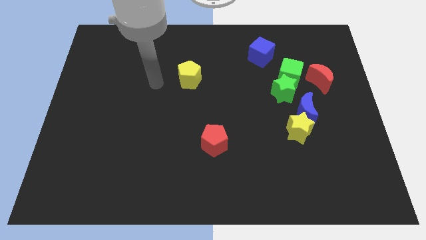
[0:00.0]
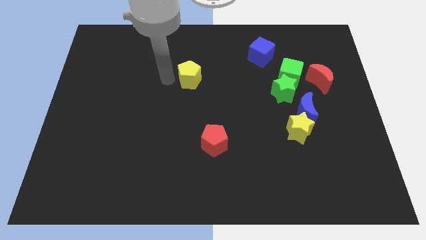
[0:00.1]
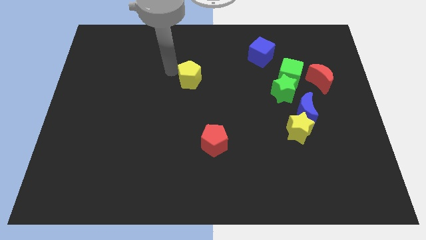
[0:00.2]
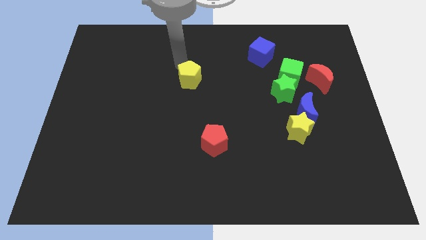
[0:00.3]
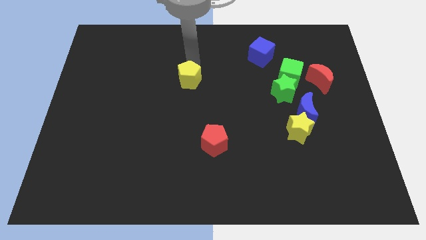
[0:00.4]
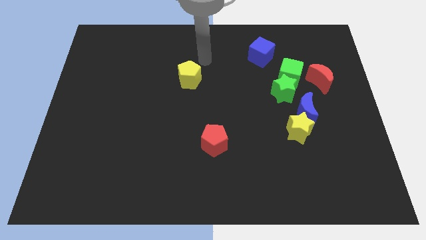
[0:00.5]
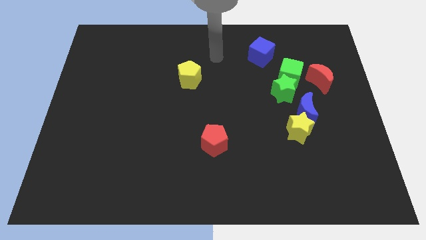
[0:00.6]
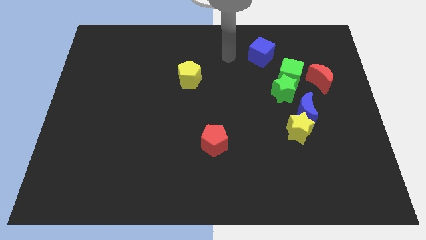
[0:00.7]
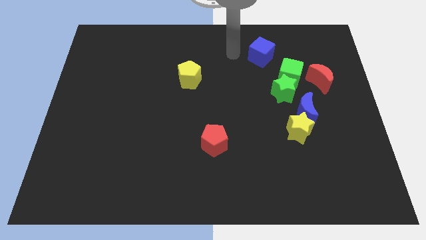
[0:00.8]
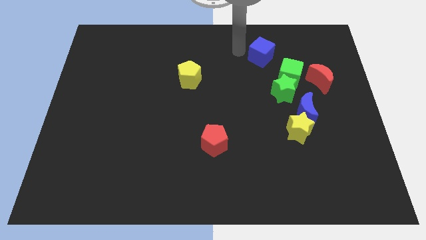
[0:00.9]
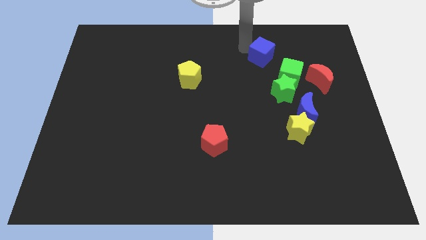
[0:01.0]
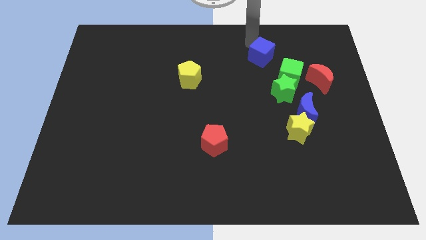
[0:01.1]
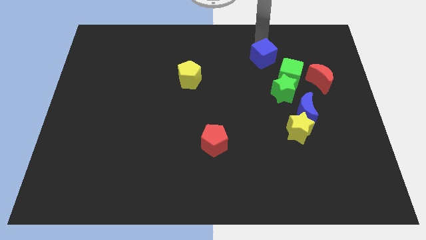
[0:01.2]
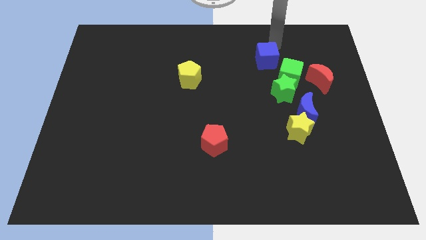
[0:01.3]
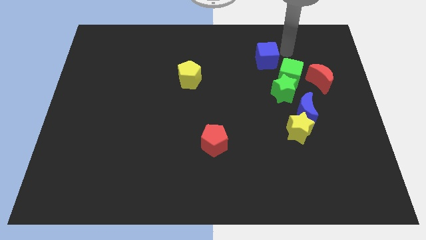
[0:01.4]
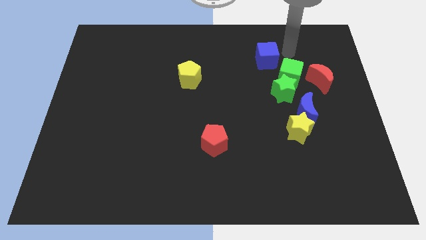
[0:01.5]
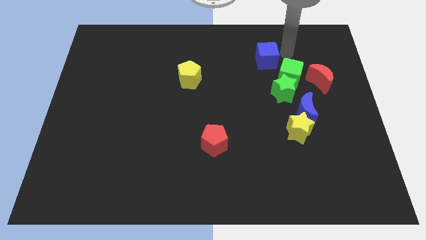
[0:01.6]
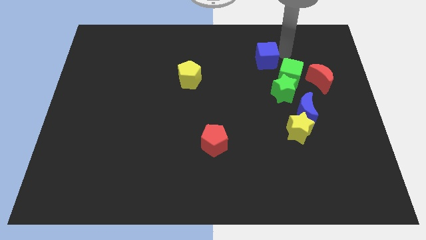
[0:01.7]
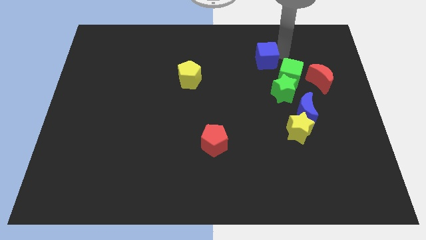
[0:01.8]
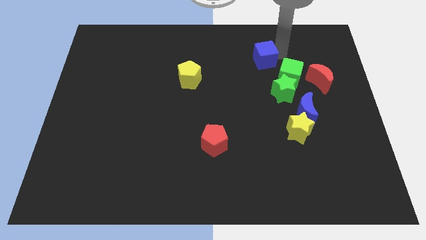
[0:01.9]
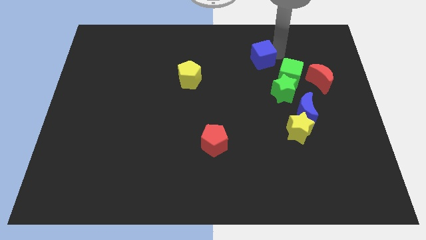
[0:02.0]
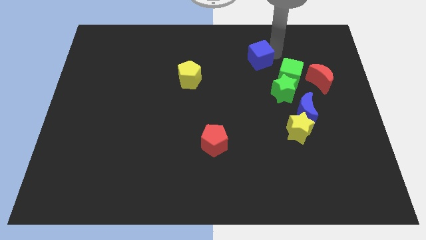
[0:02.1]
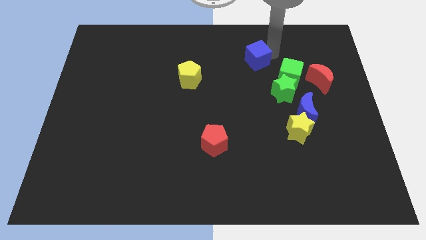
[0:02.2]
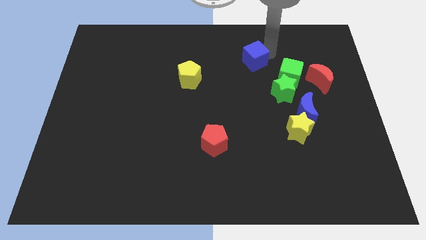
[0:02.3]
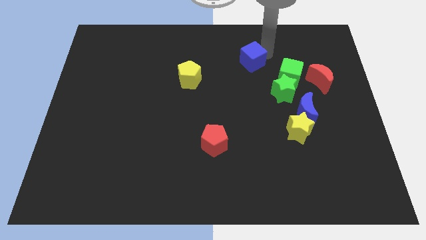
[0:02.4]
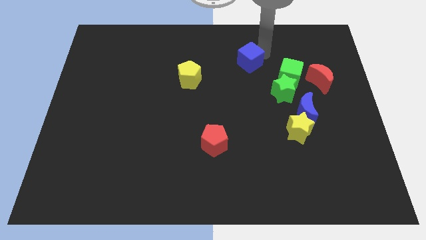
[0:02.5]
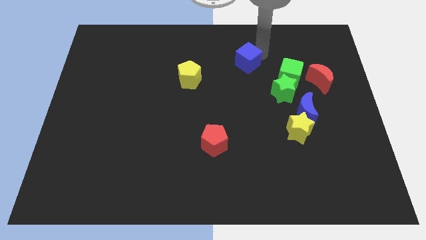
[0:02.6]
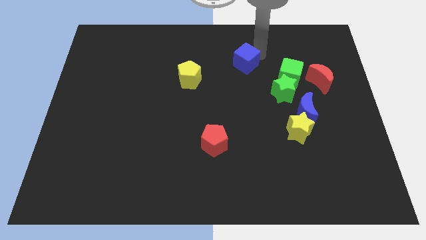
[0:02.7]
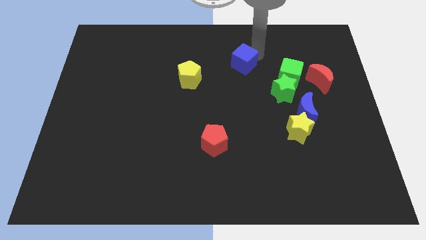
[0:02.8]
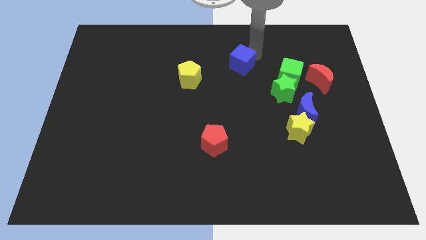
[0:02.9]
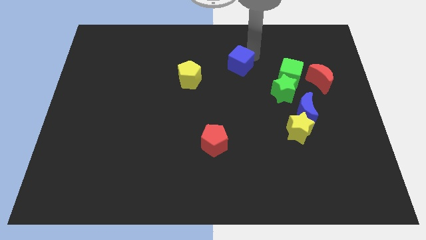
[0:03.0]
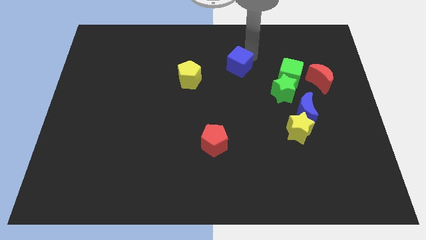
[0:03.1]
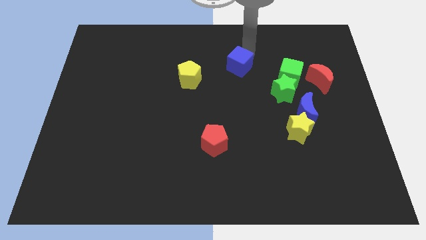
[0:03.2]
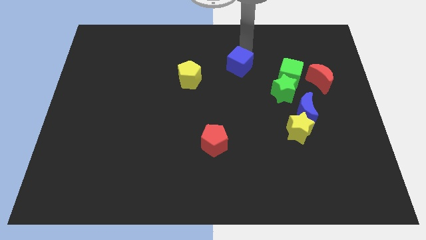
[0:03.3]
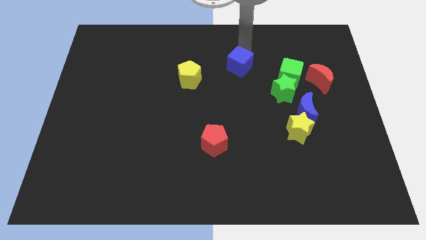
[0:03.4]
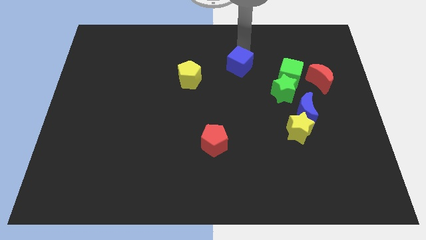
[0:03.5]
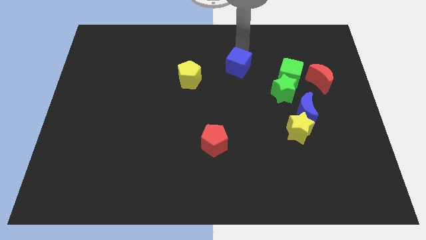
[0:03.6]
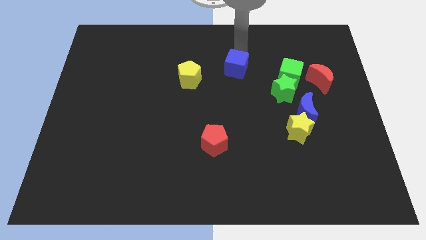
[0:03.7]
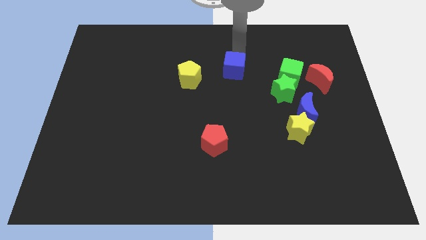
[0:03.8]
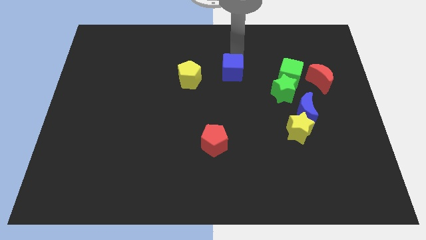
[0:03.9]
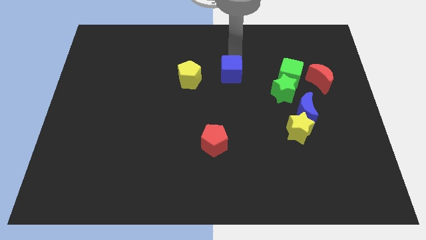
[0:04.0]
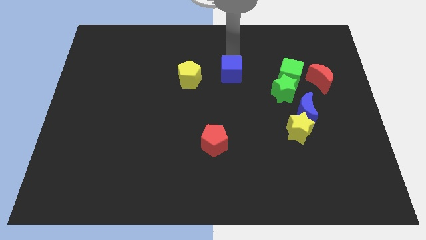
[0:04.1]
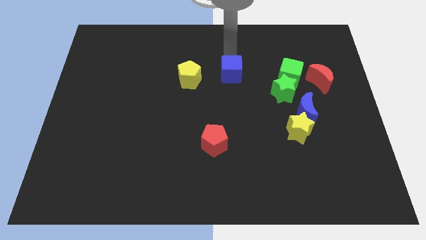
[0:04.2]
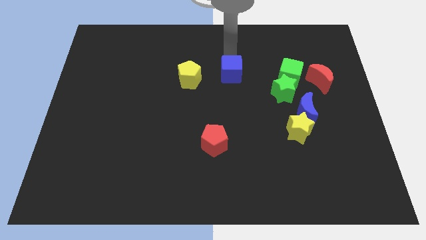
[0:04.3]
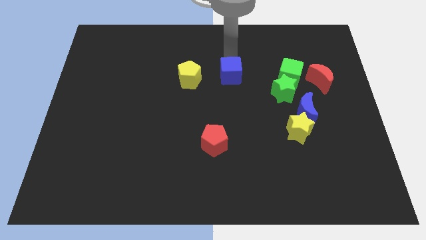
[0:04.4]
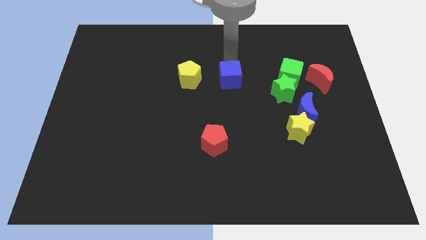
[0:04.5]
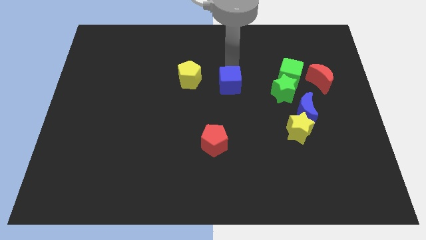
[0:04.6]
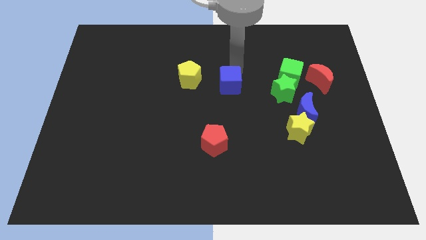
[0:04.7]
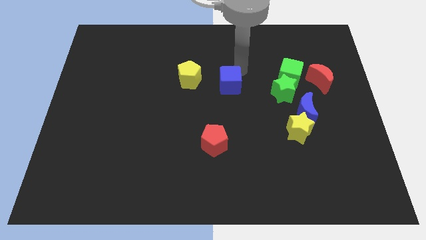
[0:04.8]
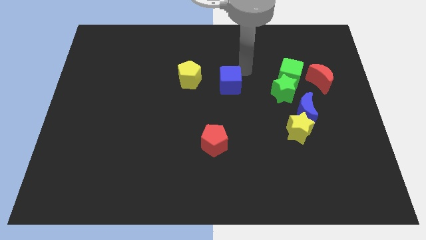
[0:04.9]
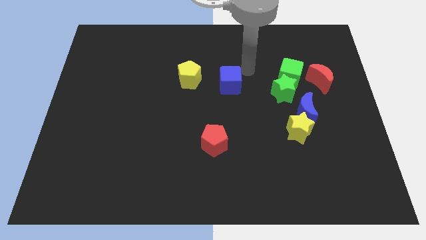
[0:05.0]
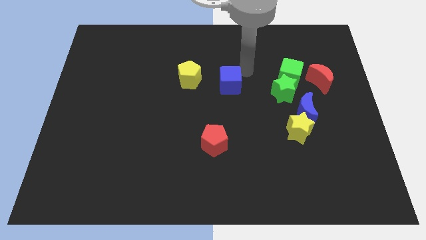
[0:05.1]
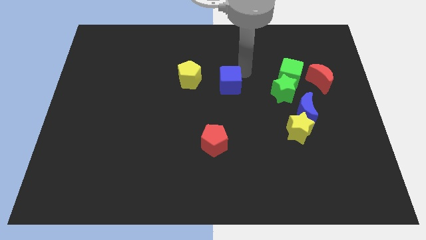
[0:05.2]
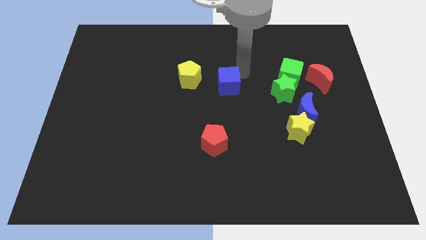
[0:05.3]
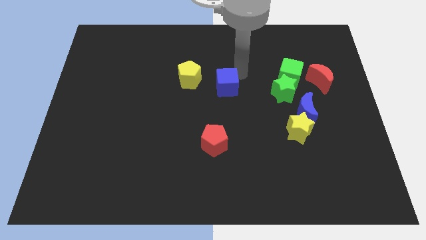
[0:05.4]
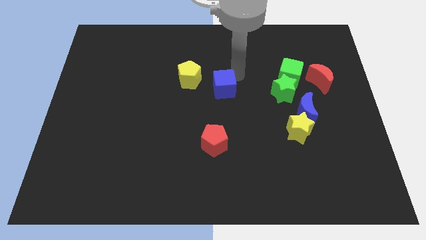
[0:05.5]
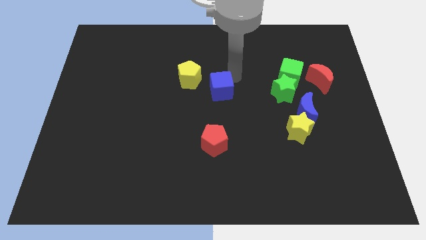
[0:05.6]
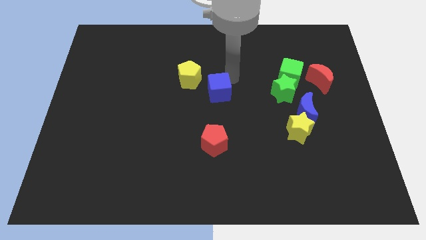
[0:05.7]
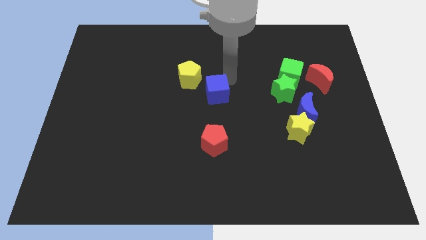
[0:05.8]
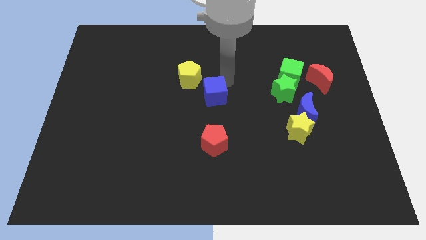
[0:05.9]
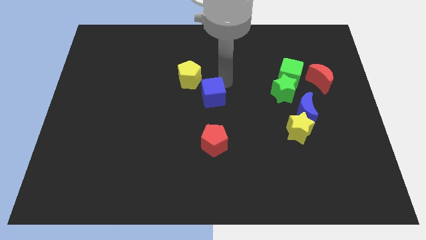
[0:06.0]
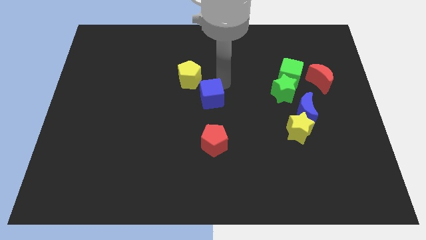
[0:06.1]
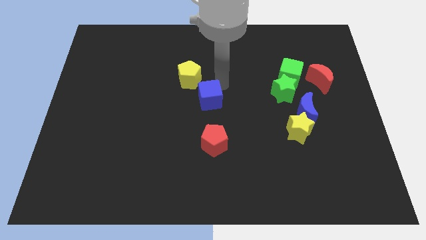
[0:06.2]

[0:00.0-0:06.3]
move the blue cube down and left diagonally

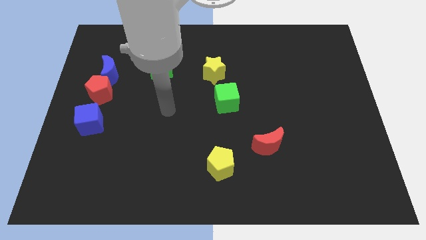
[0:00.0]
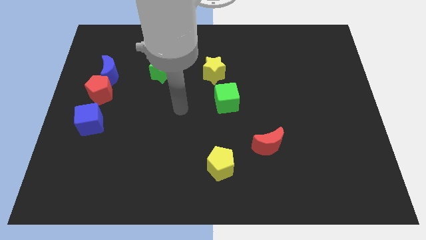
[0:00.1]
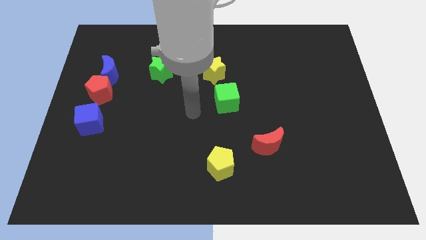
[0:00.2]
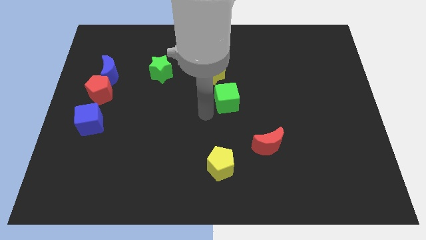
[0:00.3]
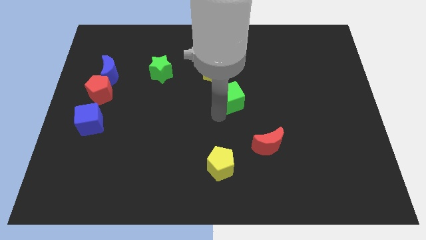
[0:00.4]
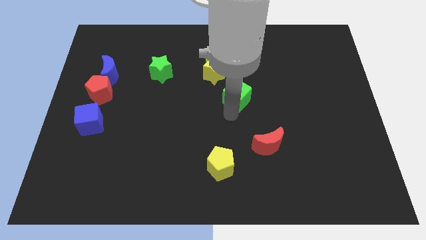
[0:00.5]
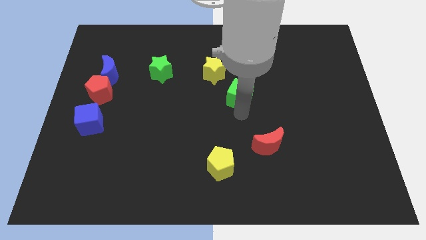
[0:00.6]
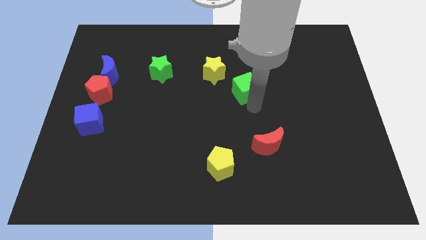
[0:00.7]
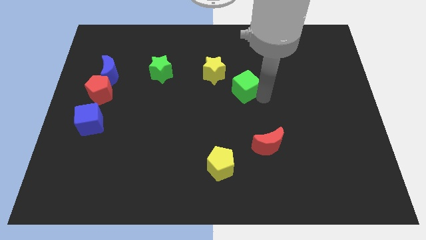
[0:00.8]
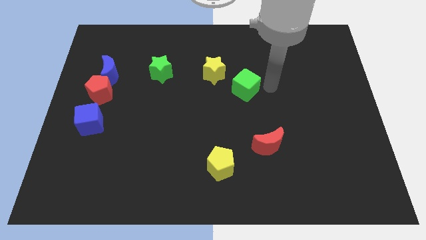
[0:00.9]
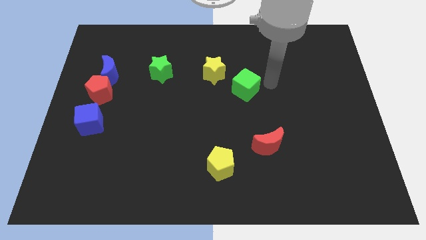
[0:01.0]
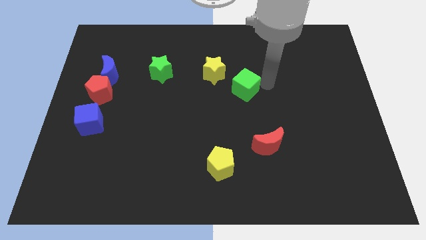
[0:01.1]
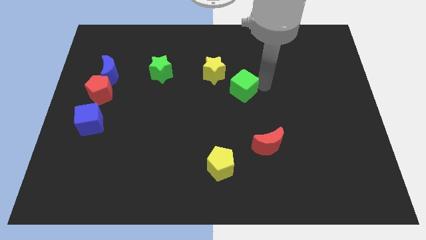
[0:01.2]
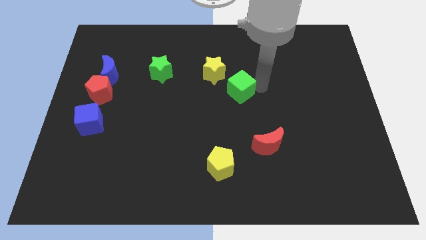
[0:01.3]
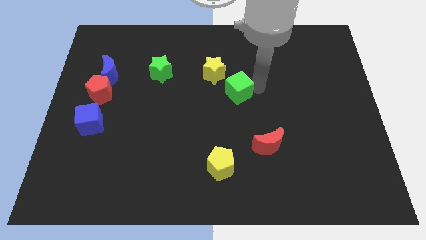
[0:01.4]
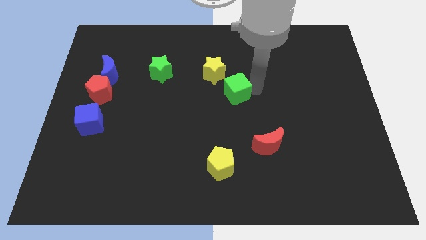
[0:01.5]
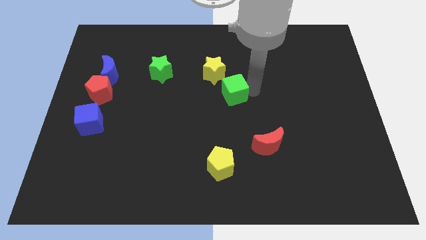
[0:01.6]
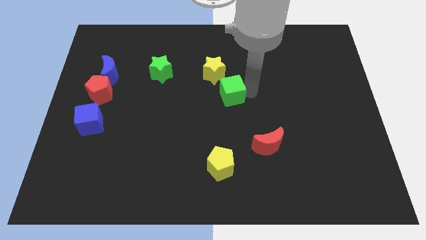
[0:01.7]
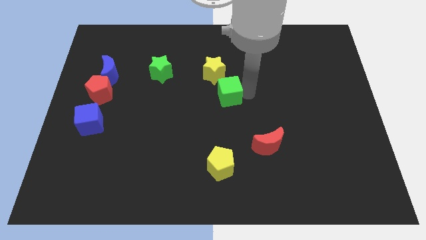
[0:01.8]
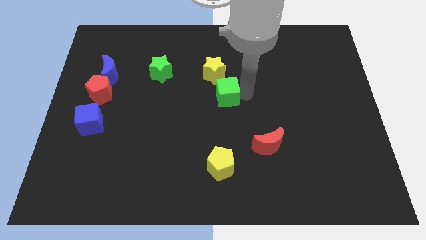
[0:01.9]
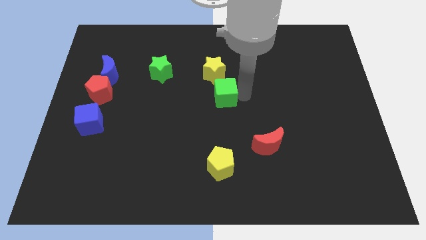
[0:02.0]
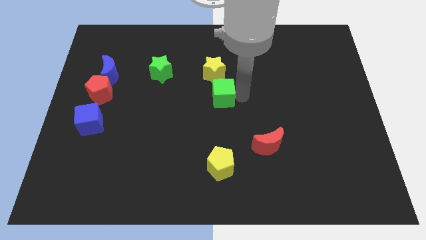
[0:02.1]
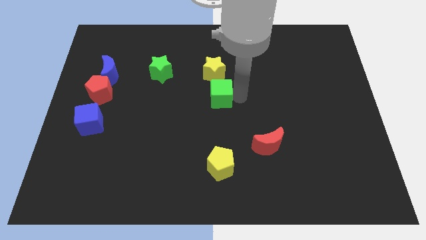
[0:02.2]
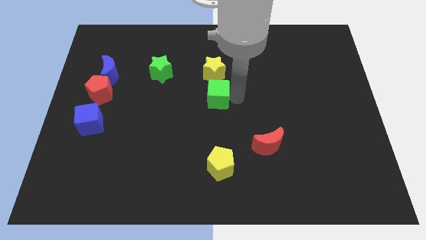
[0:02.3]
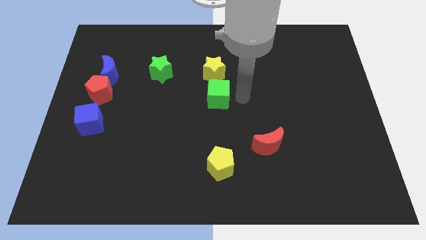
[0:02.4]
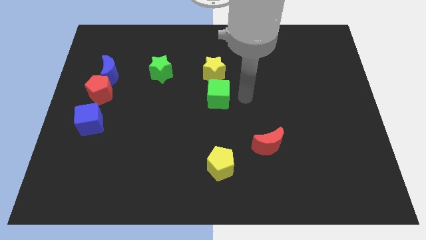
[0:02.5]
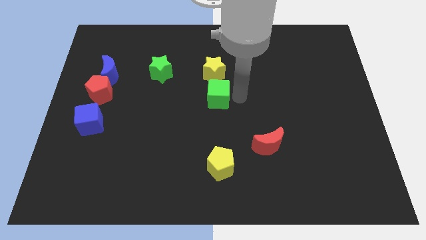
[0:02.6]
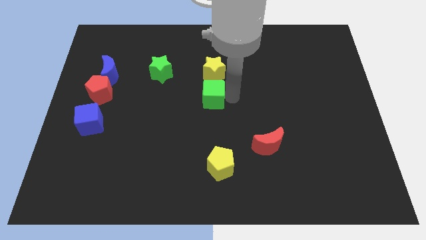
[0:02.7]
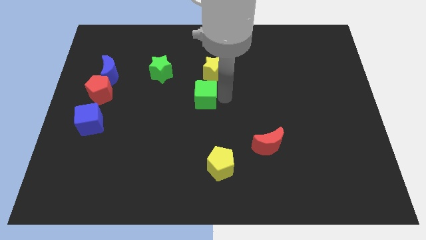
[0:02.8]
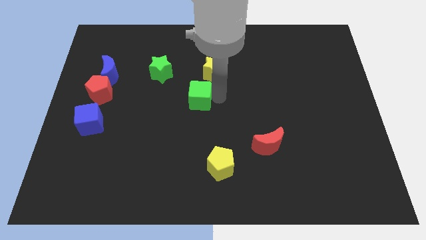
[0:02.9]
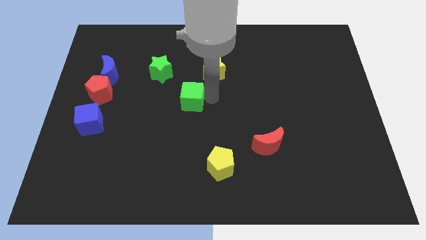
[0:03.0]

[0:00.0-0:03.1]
slightly move the green cube to the left
